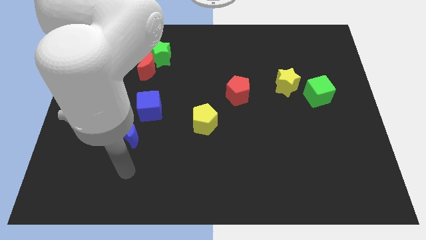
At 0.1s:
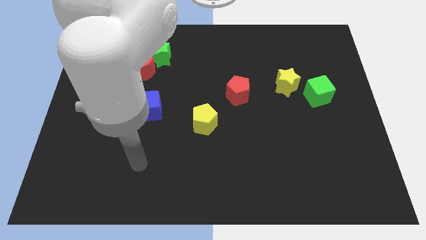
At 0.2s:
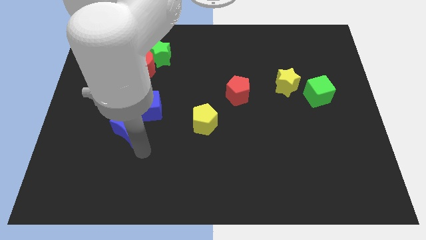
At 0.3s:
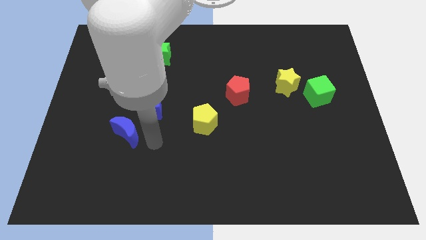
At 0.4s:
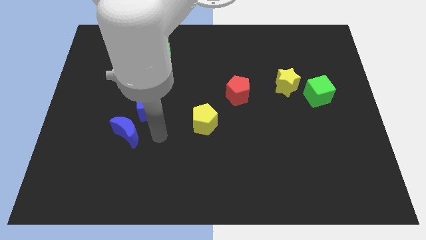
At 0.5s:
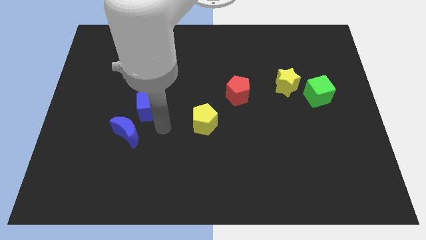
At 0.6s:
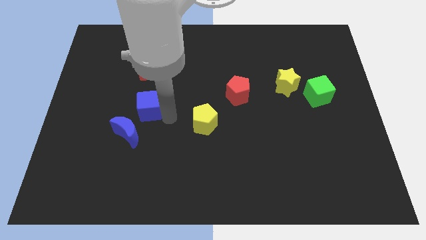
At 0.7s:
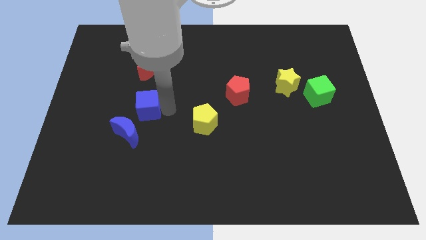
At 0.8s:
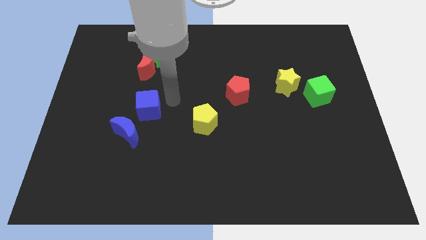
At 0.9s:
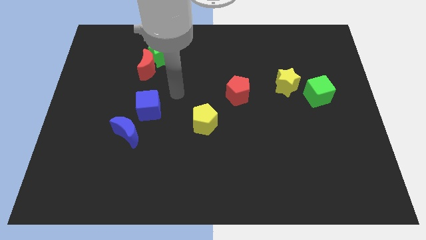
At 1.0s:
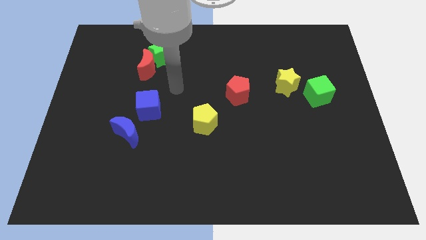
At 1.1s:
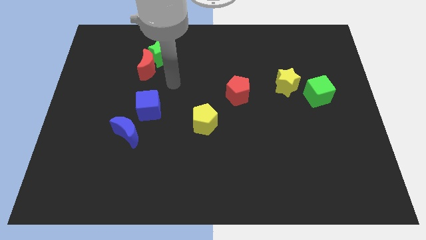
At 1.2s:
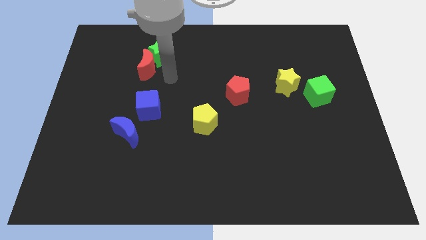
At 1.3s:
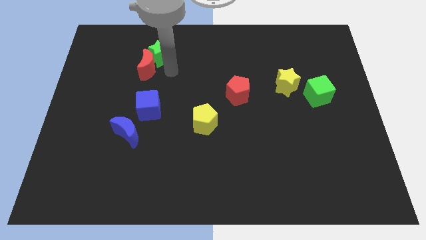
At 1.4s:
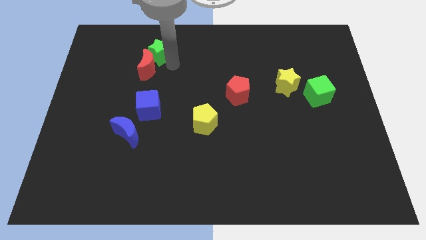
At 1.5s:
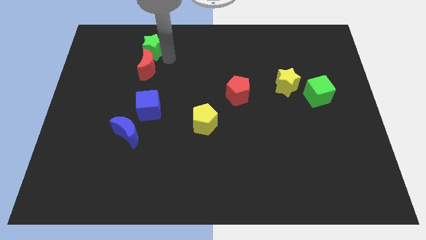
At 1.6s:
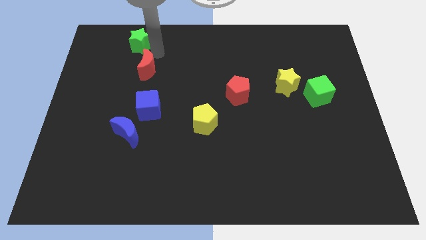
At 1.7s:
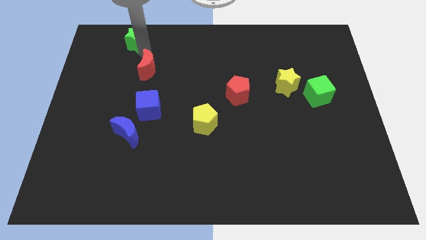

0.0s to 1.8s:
separate the red moon from the green star

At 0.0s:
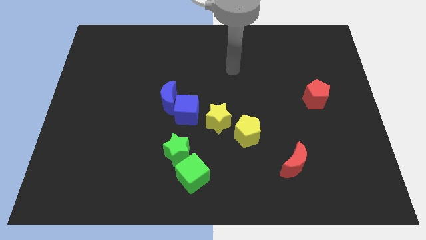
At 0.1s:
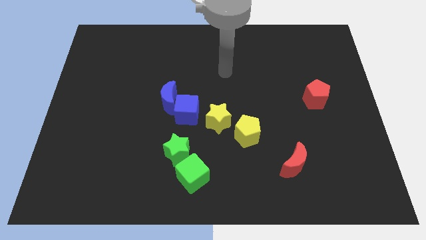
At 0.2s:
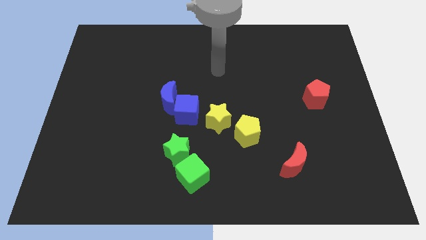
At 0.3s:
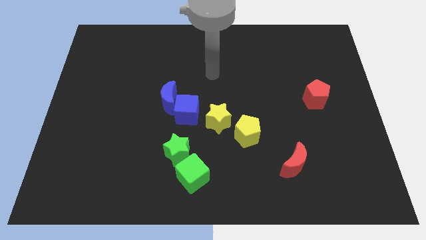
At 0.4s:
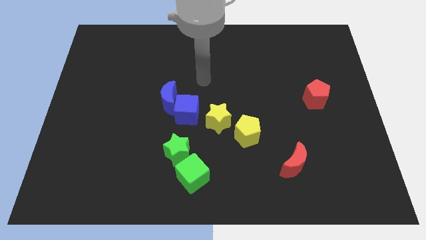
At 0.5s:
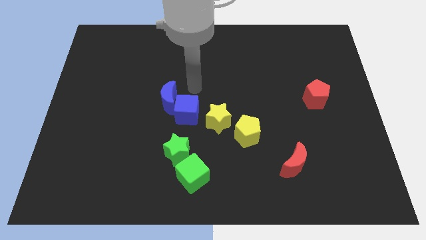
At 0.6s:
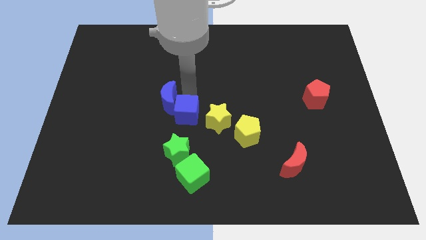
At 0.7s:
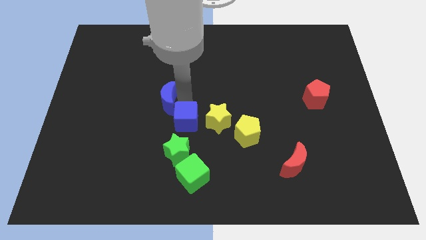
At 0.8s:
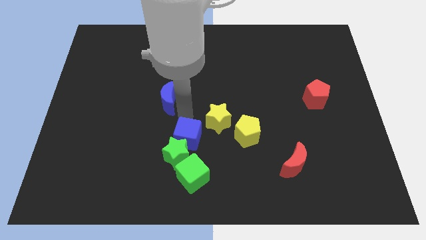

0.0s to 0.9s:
move the blue moon away from the blue cube

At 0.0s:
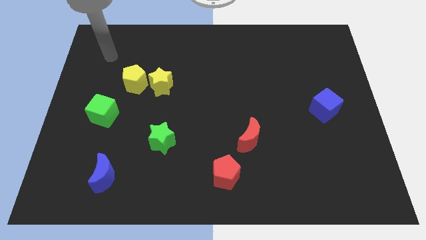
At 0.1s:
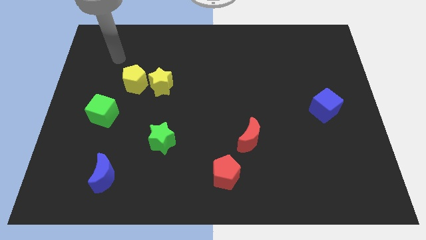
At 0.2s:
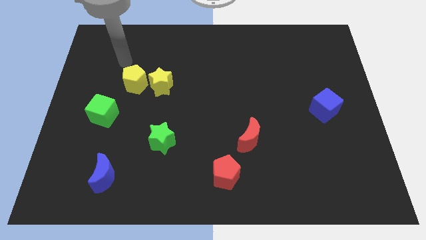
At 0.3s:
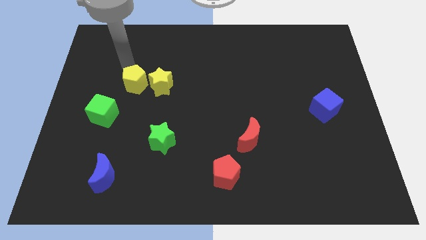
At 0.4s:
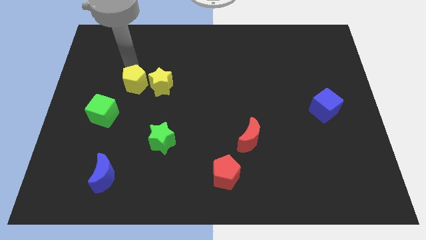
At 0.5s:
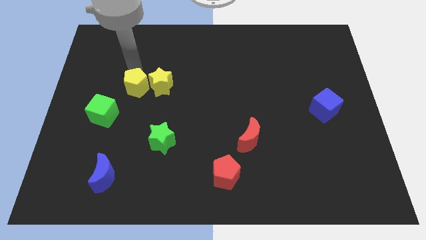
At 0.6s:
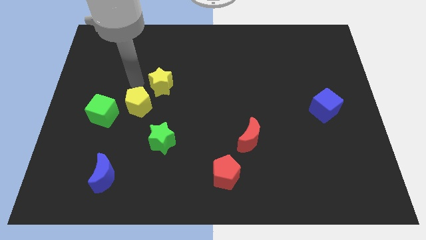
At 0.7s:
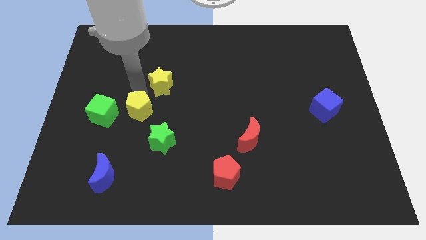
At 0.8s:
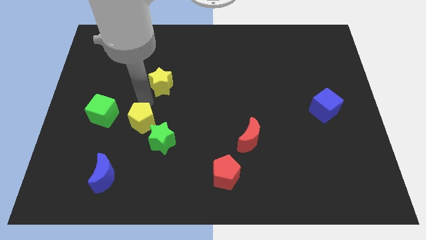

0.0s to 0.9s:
pull the yellow star apart from the yellow pentagon

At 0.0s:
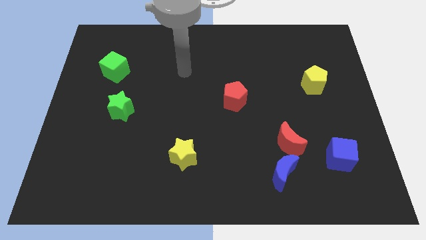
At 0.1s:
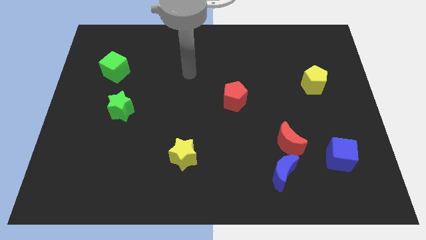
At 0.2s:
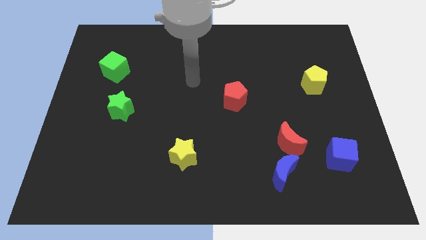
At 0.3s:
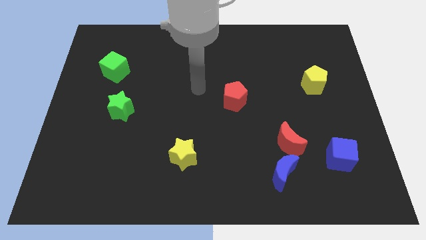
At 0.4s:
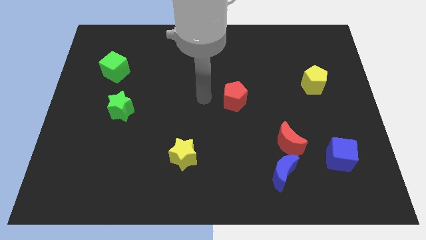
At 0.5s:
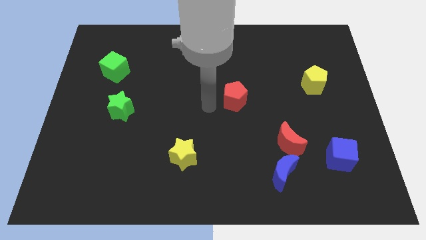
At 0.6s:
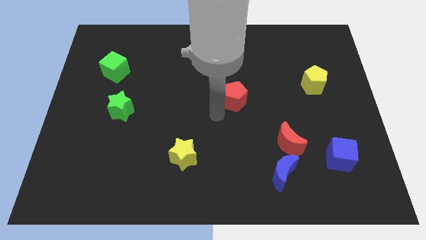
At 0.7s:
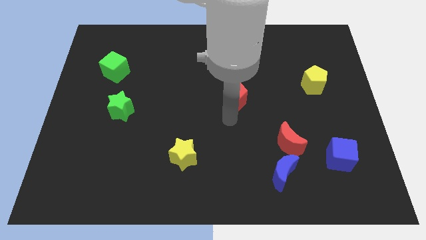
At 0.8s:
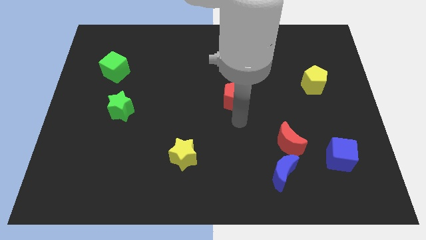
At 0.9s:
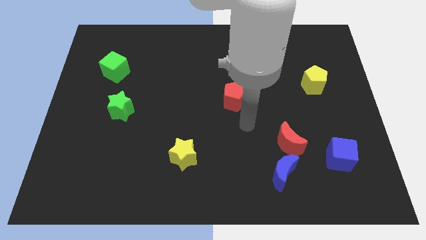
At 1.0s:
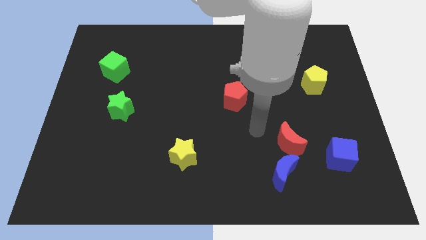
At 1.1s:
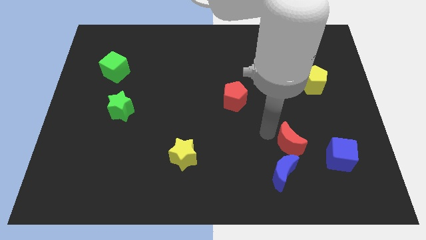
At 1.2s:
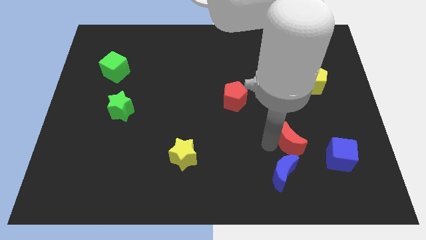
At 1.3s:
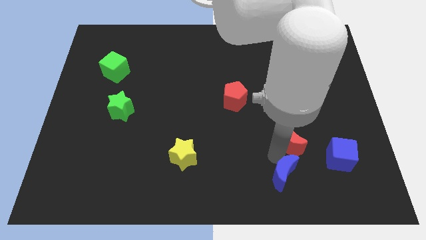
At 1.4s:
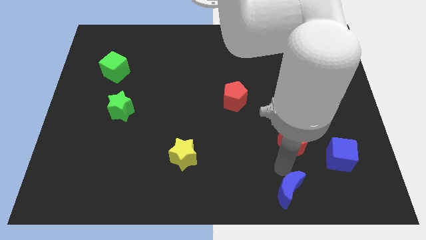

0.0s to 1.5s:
move the red moon away from the blue moon

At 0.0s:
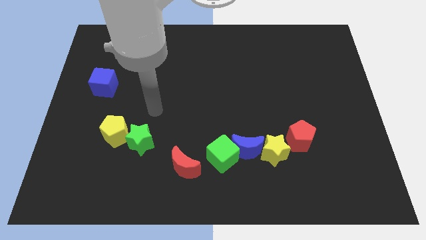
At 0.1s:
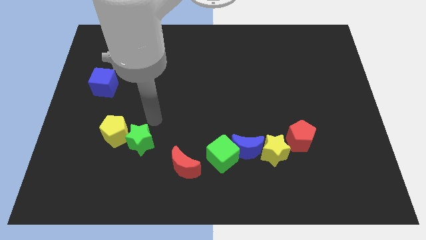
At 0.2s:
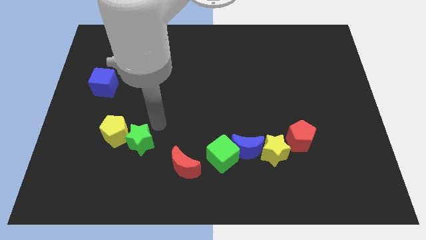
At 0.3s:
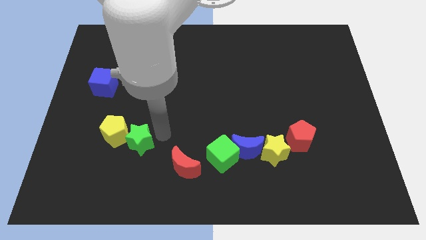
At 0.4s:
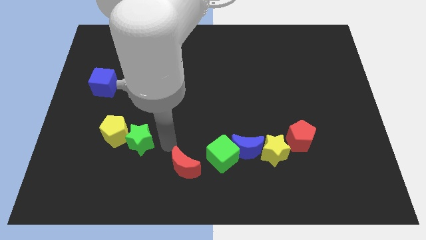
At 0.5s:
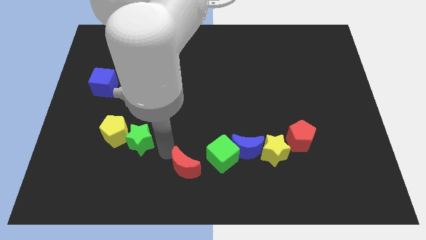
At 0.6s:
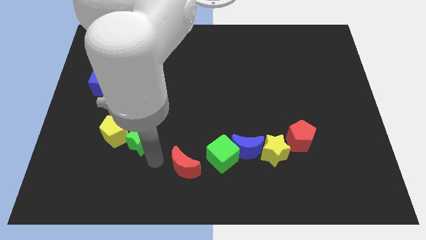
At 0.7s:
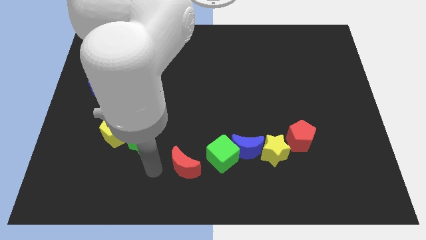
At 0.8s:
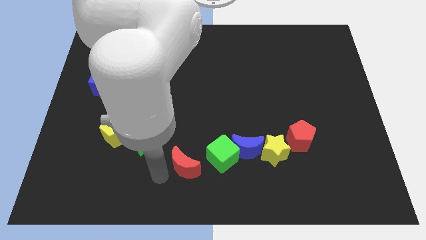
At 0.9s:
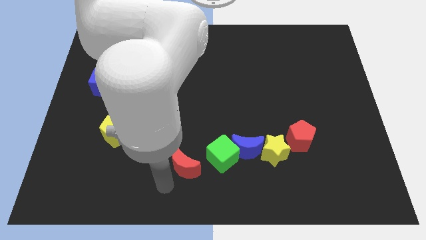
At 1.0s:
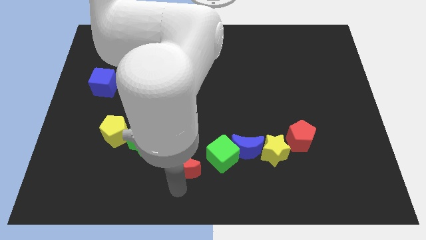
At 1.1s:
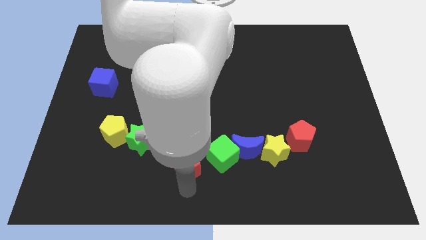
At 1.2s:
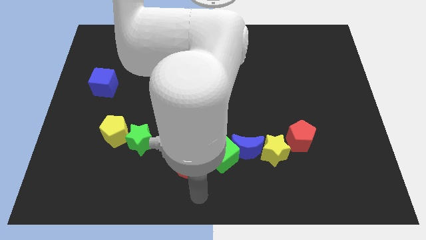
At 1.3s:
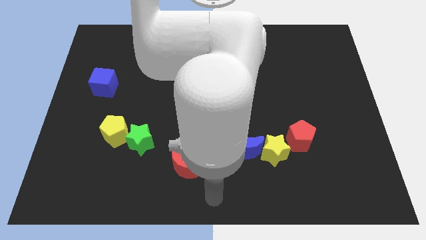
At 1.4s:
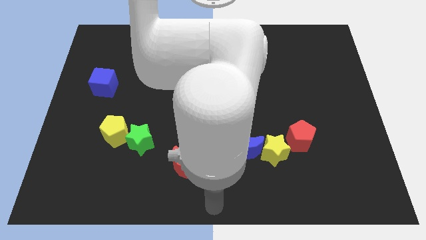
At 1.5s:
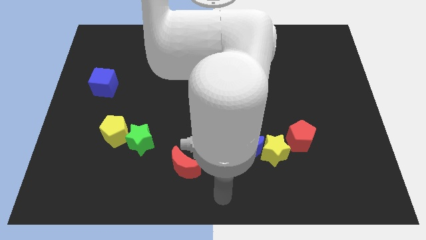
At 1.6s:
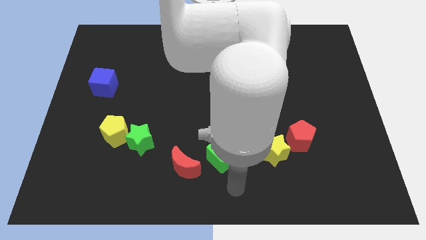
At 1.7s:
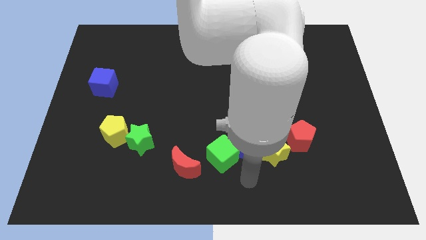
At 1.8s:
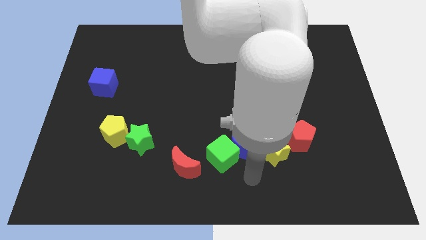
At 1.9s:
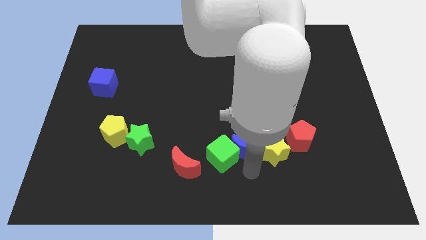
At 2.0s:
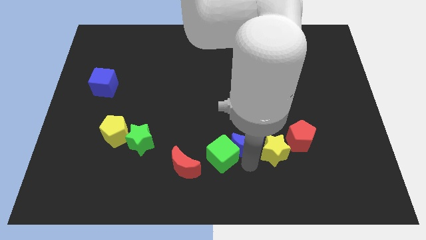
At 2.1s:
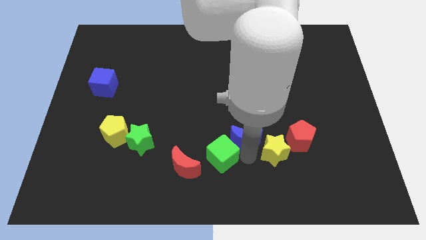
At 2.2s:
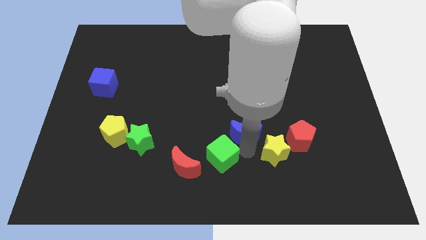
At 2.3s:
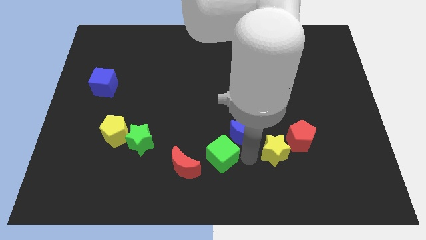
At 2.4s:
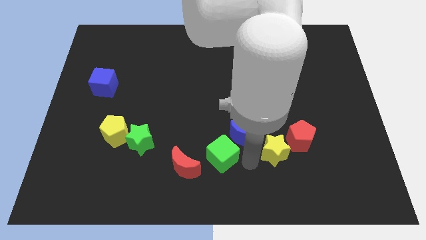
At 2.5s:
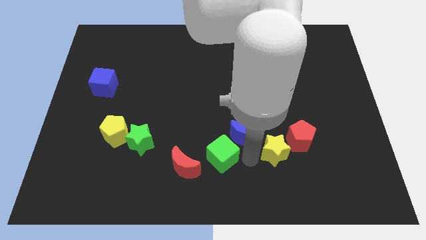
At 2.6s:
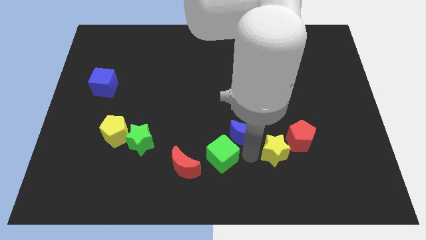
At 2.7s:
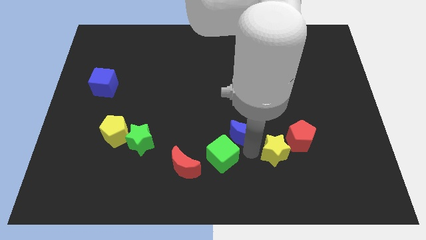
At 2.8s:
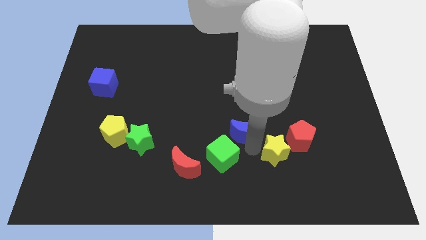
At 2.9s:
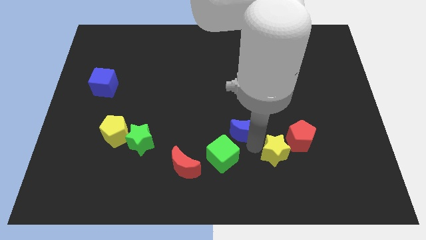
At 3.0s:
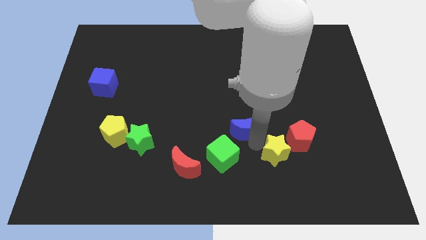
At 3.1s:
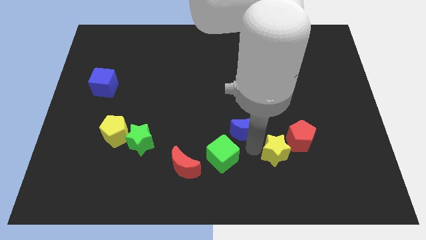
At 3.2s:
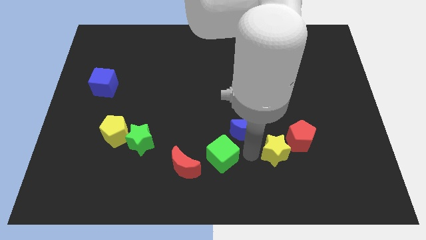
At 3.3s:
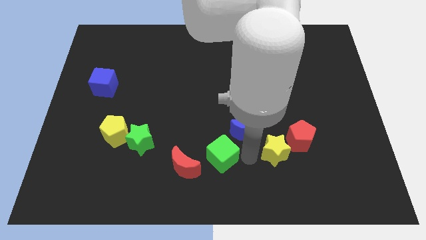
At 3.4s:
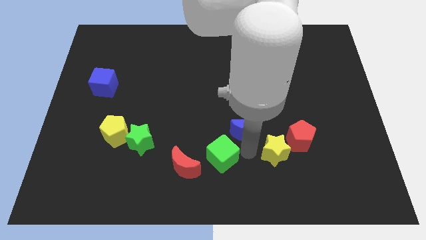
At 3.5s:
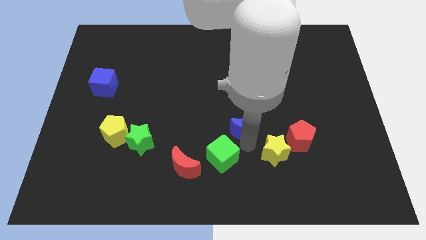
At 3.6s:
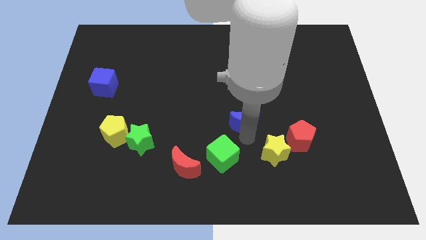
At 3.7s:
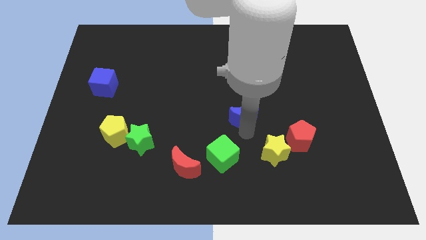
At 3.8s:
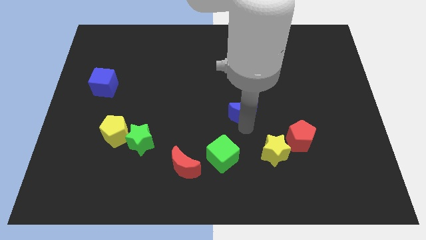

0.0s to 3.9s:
separate the blue moon from the green cube and yellow star

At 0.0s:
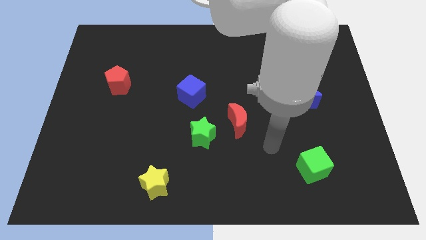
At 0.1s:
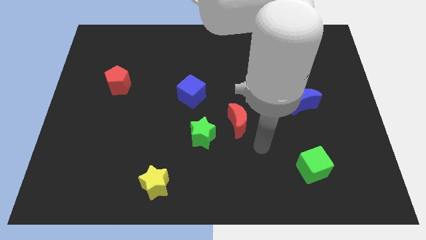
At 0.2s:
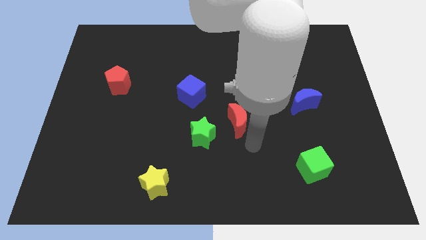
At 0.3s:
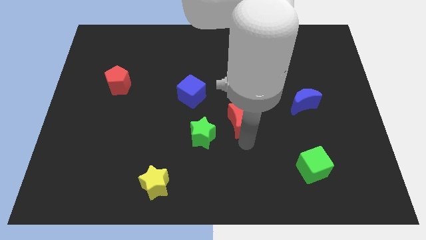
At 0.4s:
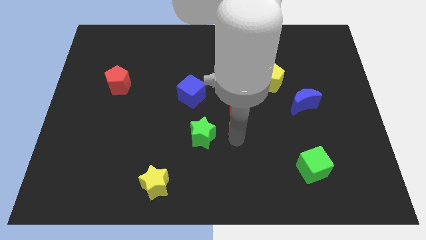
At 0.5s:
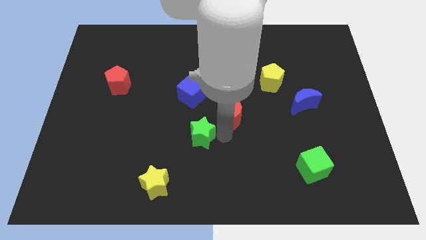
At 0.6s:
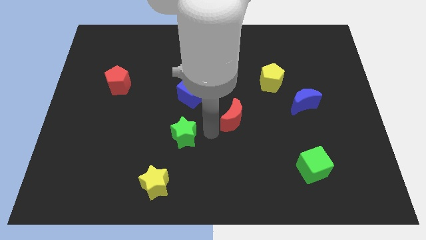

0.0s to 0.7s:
move the red moon away from the green star
